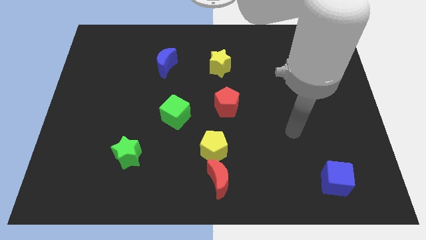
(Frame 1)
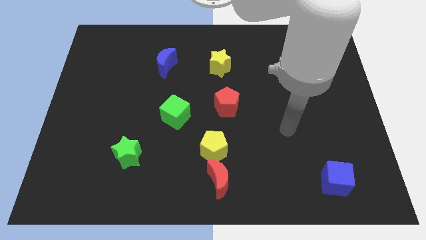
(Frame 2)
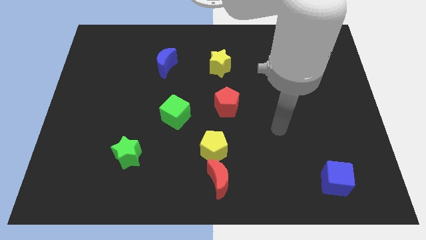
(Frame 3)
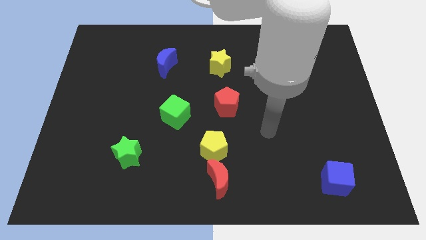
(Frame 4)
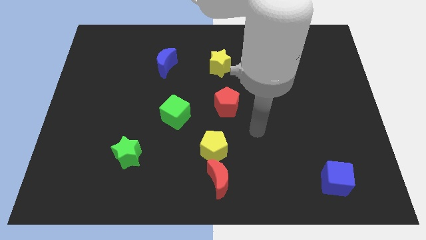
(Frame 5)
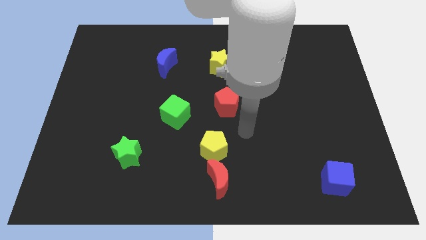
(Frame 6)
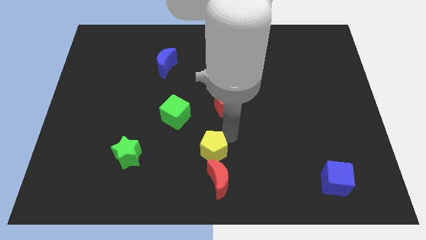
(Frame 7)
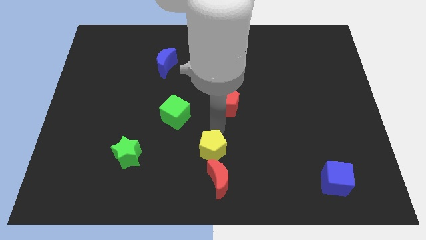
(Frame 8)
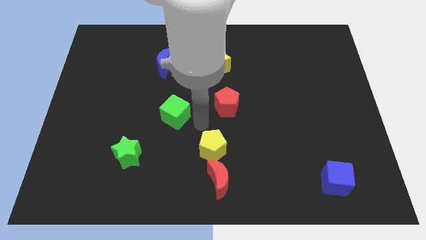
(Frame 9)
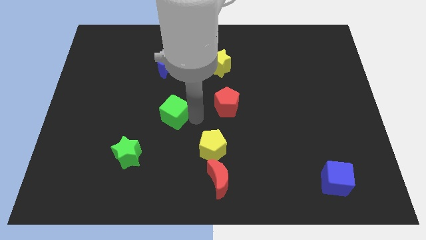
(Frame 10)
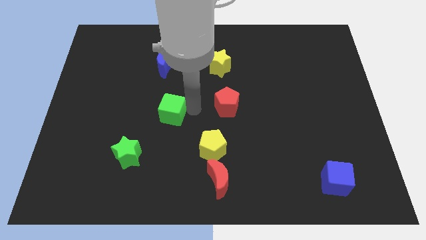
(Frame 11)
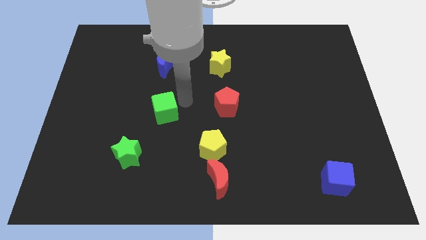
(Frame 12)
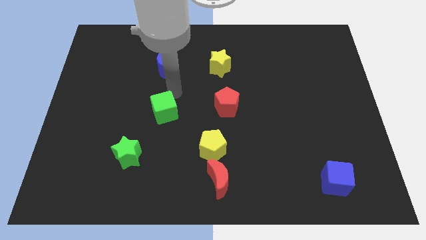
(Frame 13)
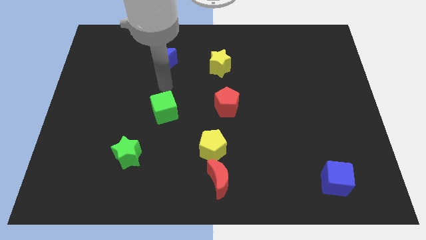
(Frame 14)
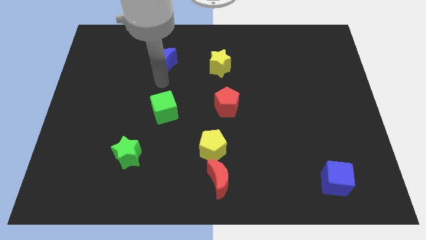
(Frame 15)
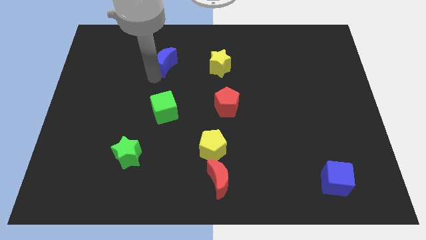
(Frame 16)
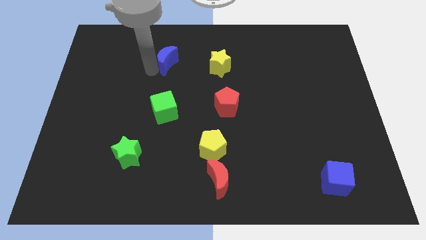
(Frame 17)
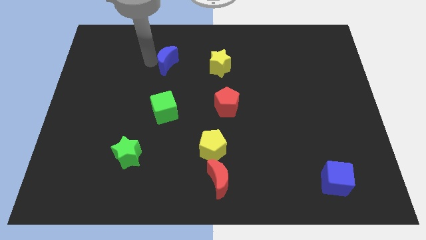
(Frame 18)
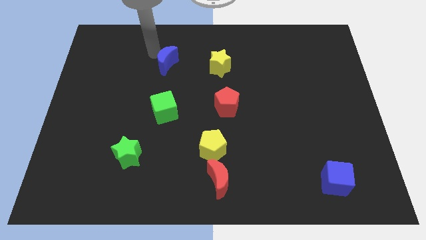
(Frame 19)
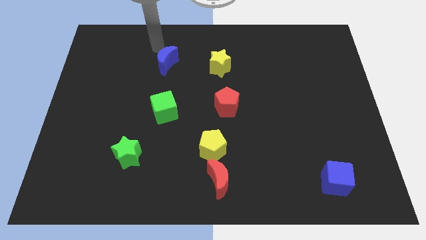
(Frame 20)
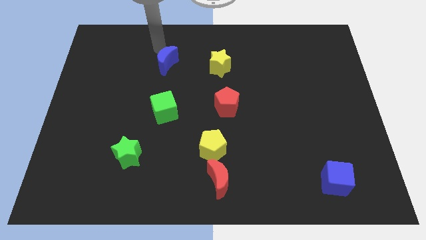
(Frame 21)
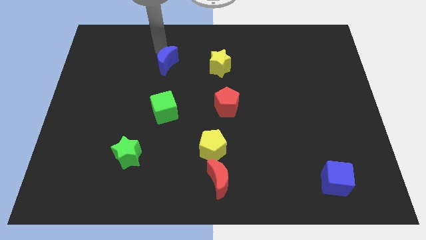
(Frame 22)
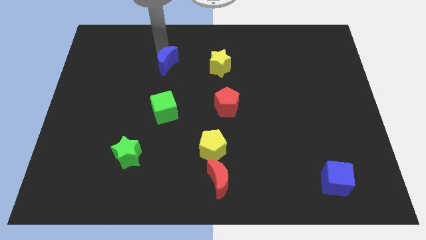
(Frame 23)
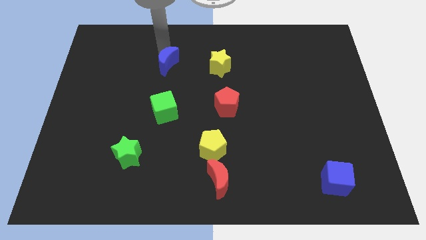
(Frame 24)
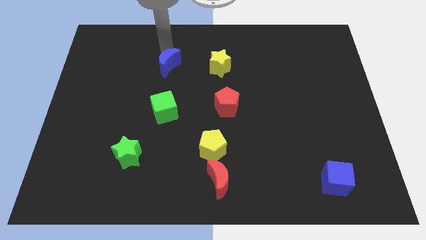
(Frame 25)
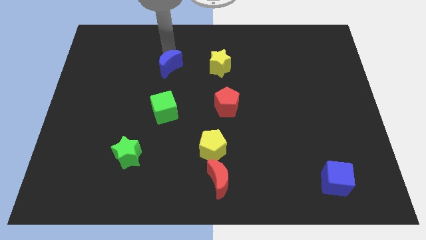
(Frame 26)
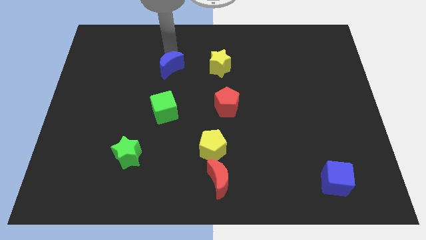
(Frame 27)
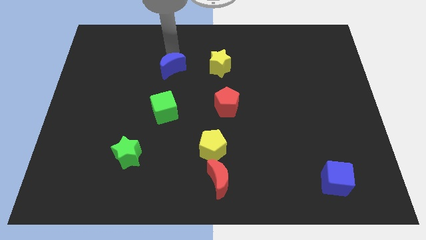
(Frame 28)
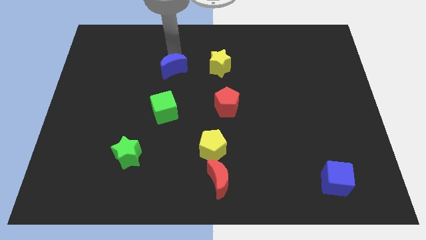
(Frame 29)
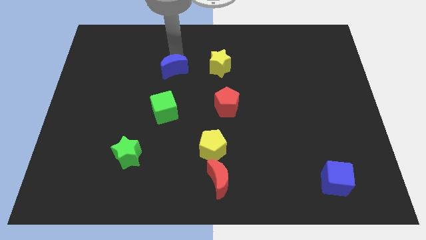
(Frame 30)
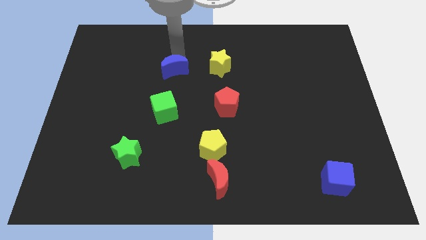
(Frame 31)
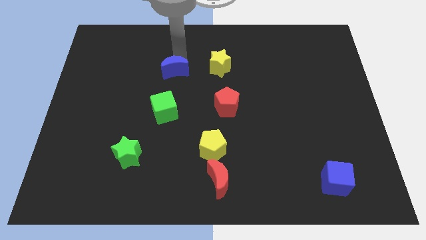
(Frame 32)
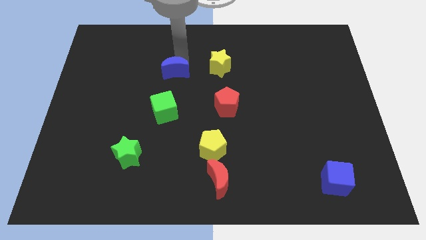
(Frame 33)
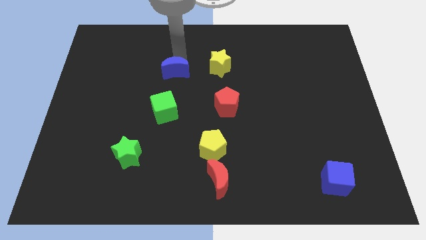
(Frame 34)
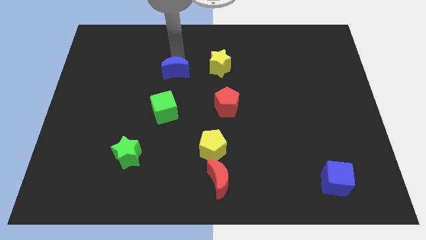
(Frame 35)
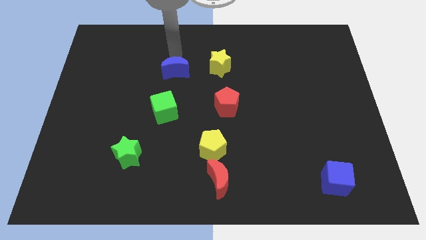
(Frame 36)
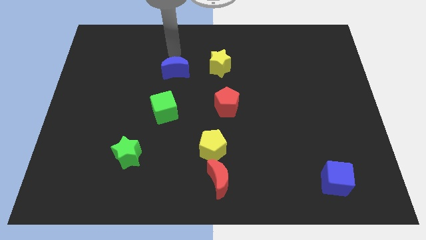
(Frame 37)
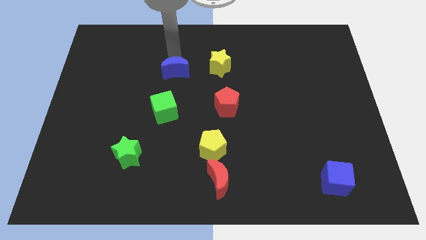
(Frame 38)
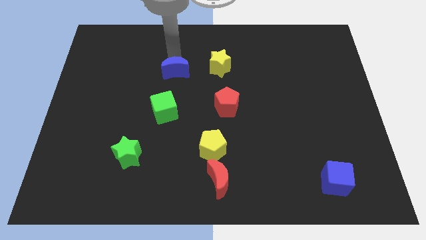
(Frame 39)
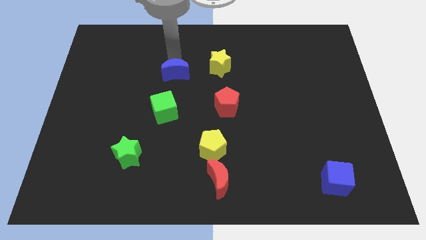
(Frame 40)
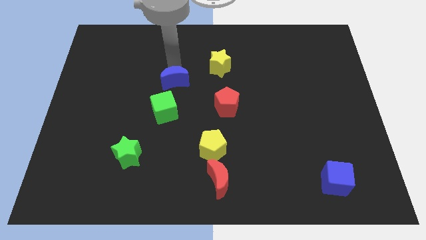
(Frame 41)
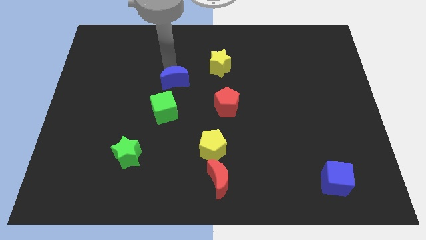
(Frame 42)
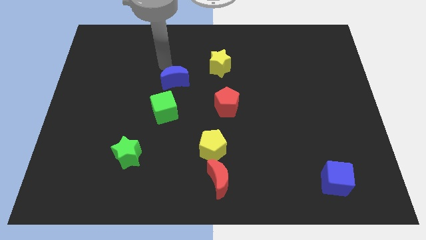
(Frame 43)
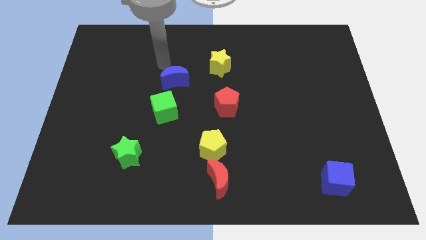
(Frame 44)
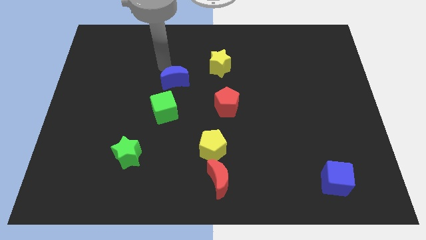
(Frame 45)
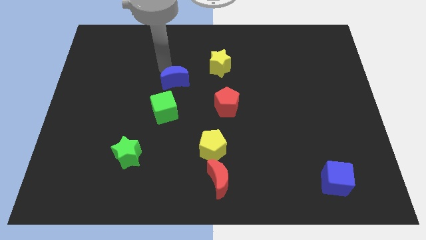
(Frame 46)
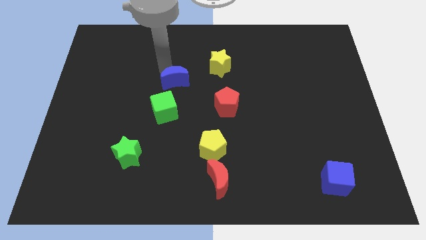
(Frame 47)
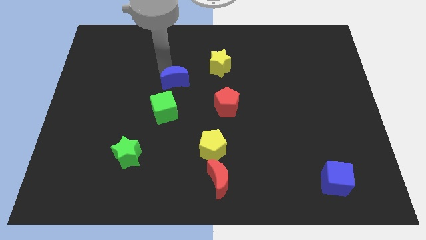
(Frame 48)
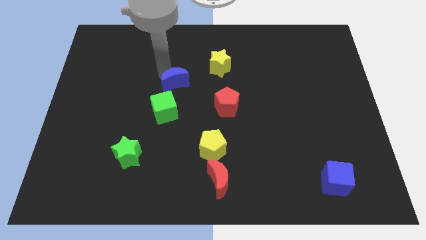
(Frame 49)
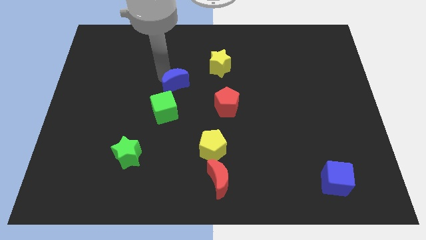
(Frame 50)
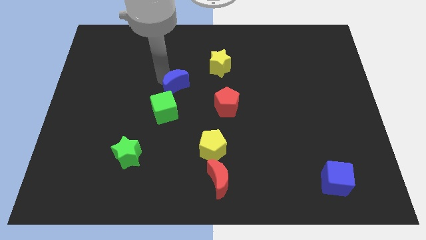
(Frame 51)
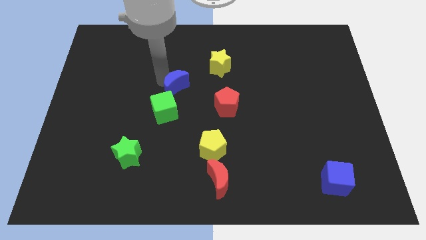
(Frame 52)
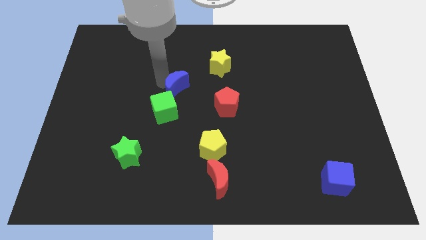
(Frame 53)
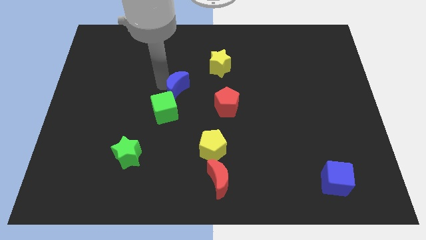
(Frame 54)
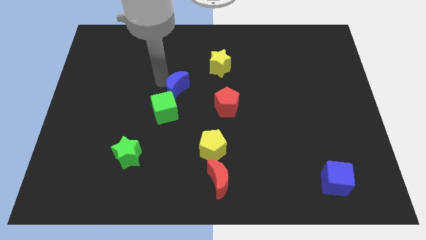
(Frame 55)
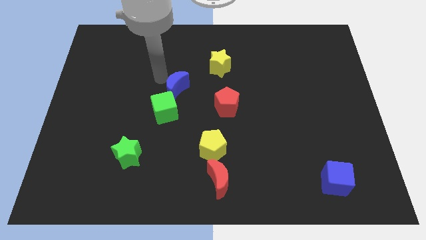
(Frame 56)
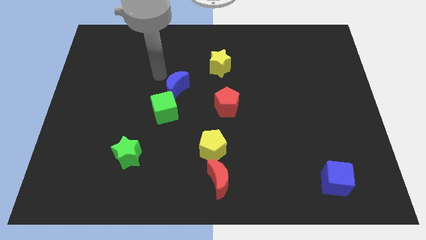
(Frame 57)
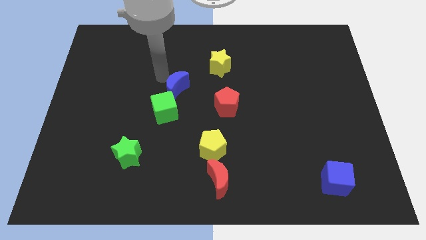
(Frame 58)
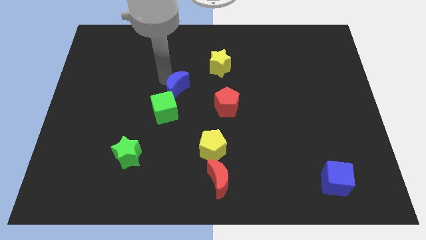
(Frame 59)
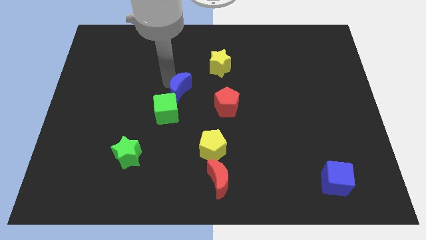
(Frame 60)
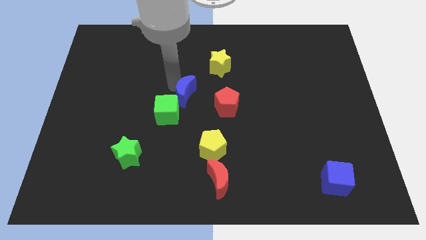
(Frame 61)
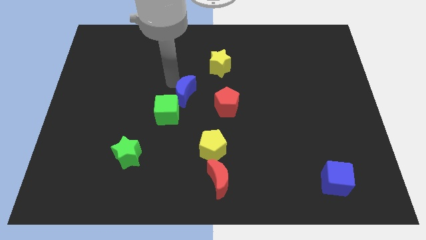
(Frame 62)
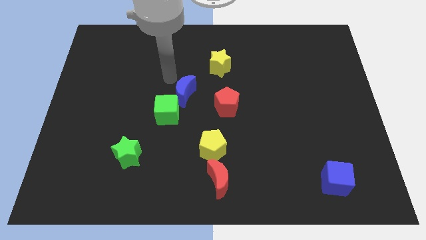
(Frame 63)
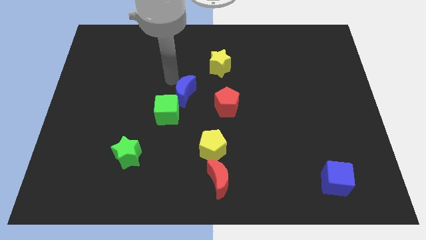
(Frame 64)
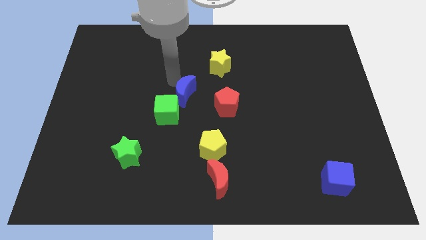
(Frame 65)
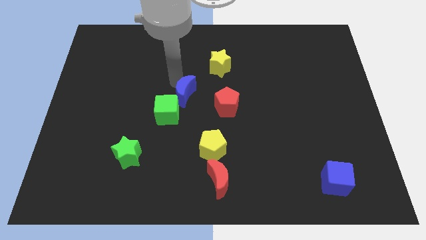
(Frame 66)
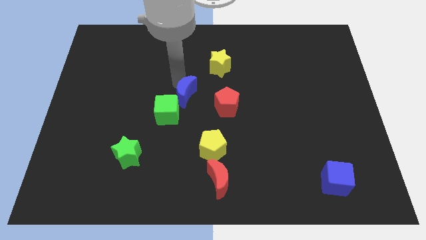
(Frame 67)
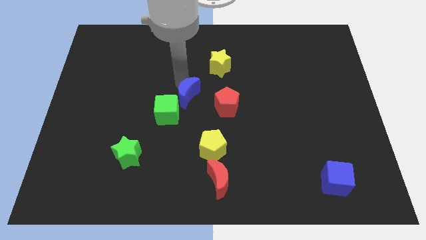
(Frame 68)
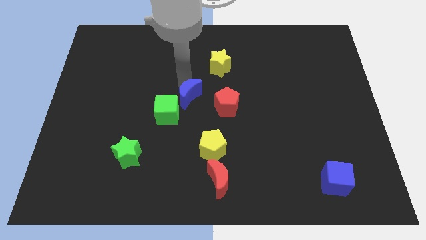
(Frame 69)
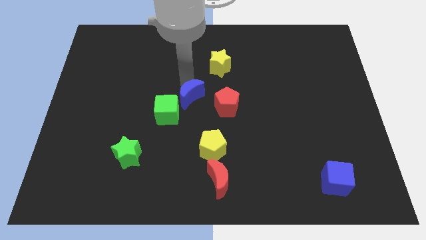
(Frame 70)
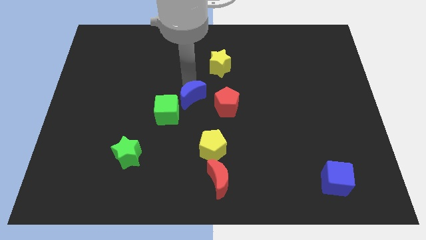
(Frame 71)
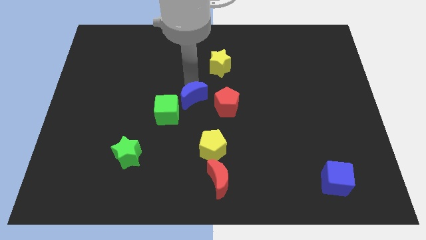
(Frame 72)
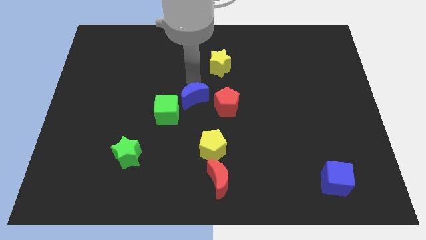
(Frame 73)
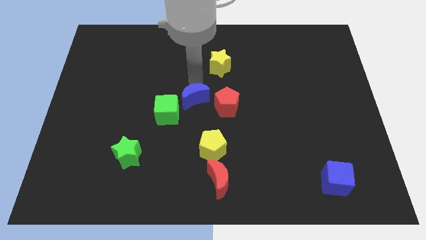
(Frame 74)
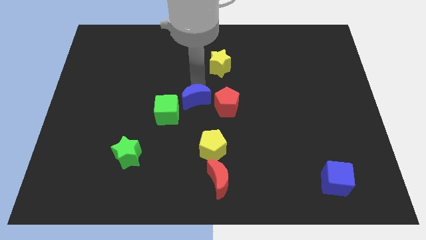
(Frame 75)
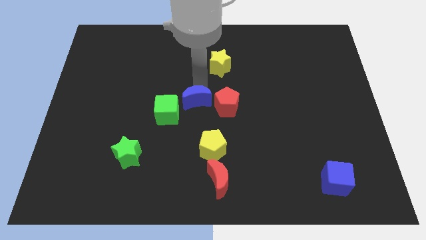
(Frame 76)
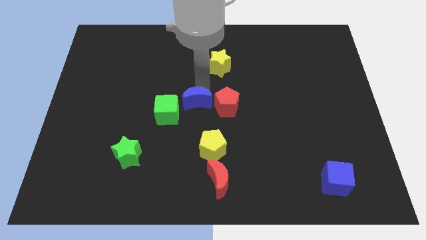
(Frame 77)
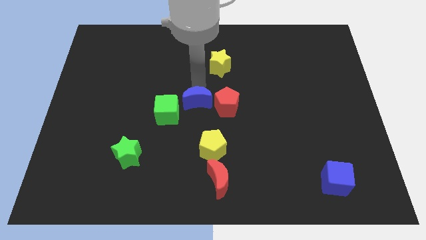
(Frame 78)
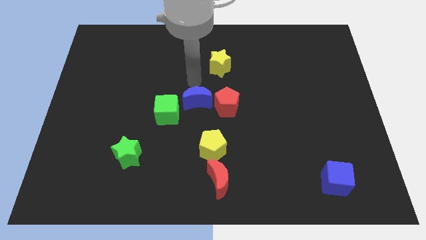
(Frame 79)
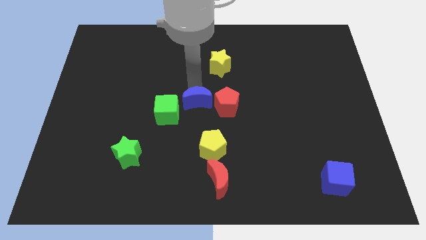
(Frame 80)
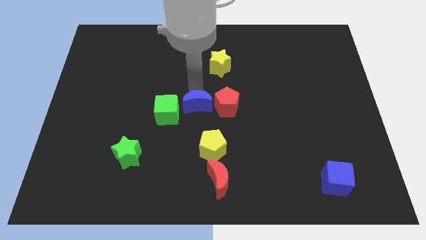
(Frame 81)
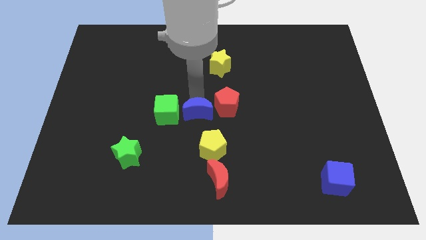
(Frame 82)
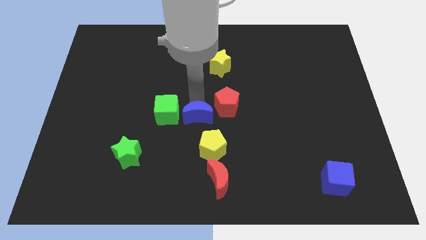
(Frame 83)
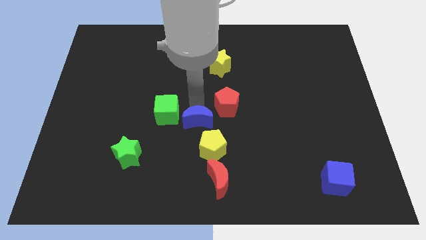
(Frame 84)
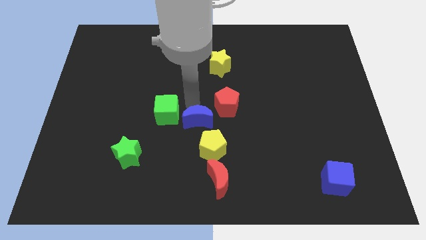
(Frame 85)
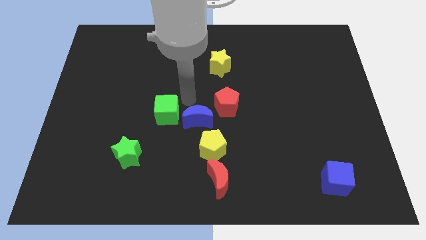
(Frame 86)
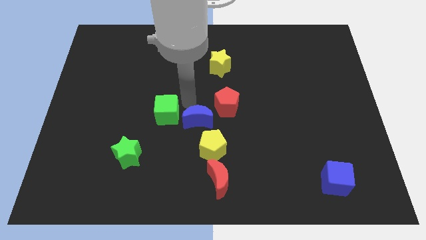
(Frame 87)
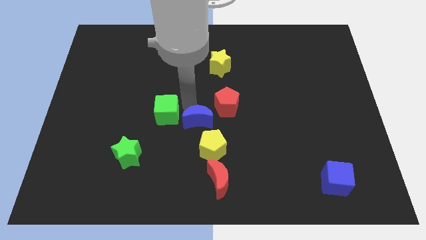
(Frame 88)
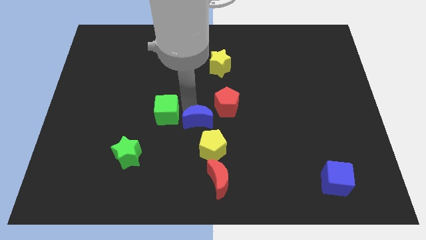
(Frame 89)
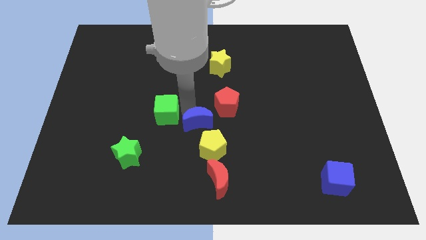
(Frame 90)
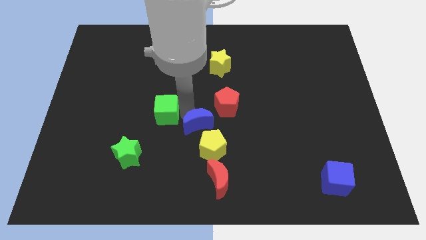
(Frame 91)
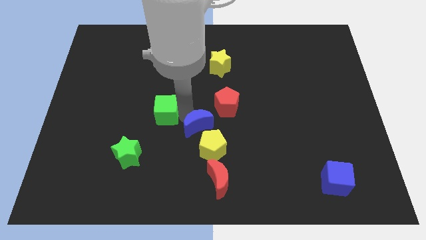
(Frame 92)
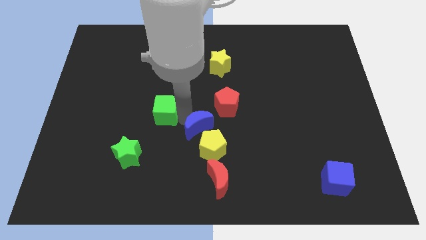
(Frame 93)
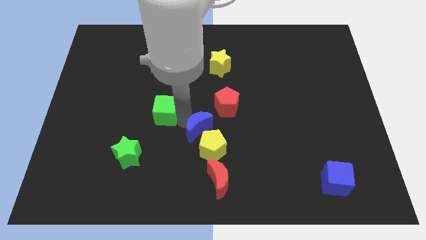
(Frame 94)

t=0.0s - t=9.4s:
put the blue moon next to the yellow pentagon
